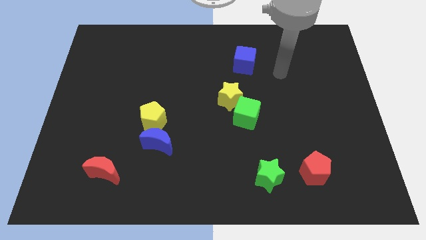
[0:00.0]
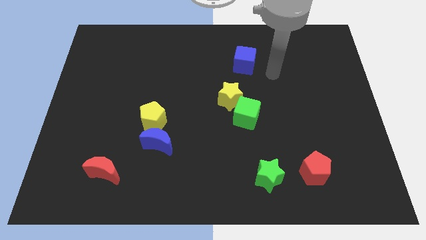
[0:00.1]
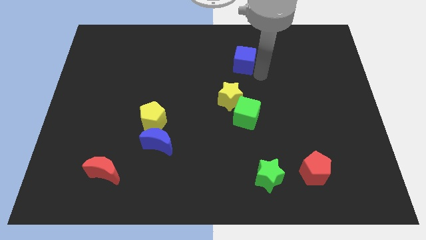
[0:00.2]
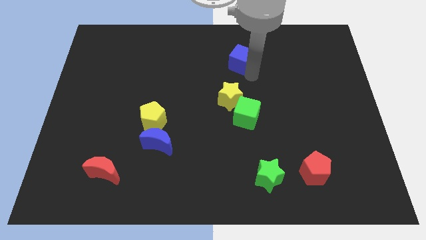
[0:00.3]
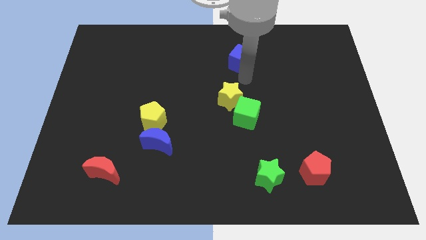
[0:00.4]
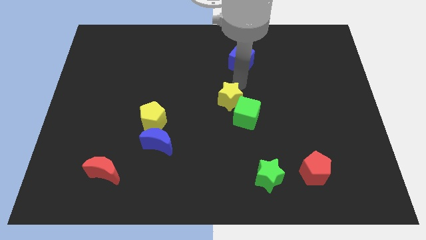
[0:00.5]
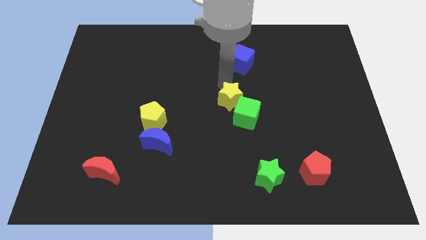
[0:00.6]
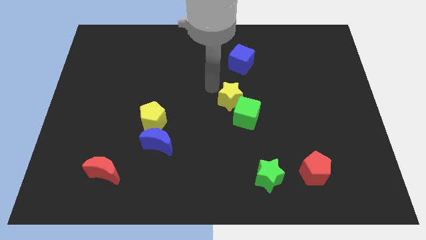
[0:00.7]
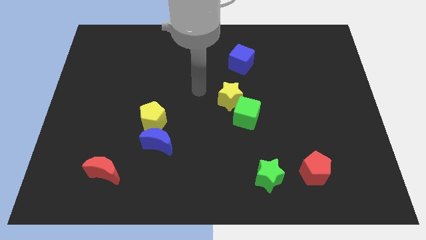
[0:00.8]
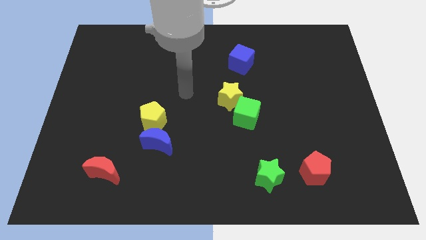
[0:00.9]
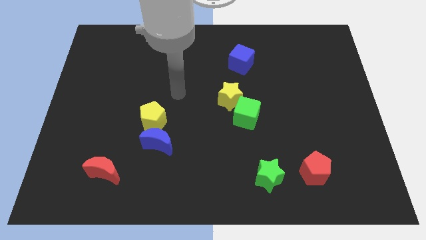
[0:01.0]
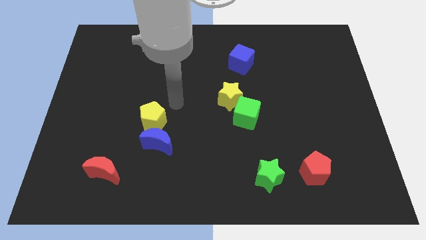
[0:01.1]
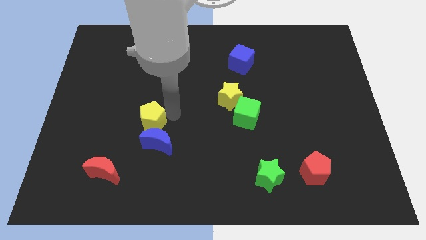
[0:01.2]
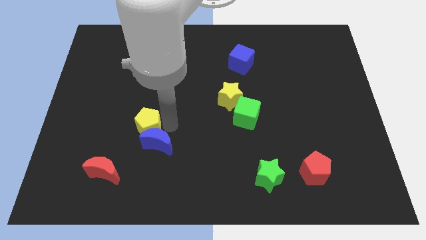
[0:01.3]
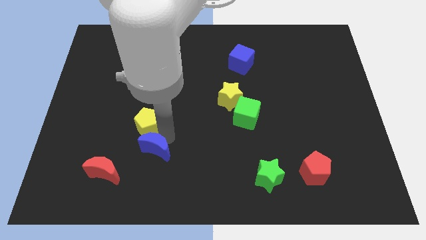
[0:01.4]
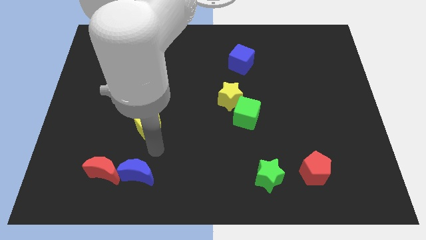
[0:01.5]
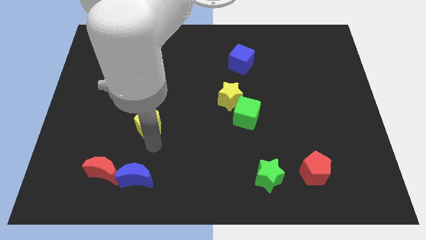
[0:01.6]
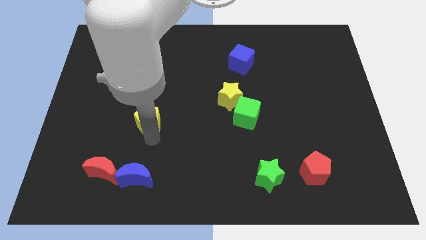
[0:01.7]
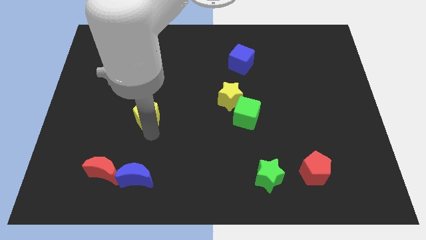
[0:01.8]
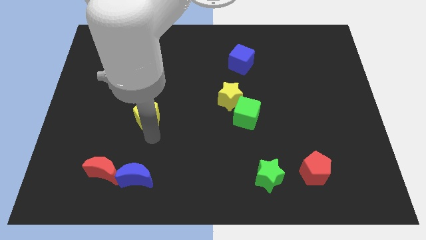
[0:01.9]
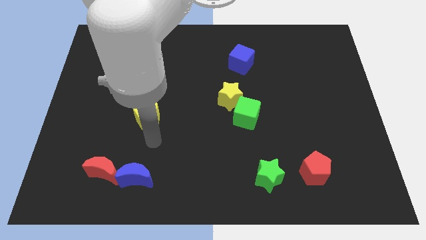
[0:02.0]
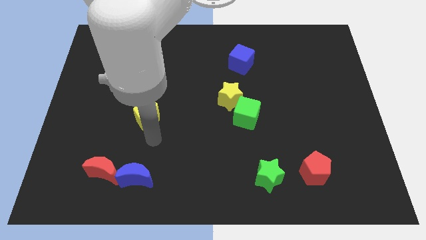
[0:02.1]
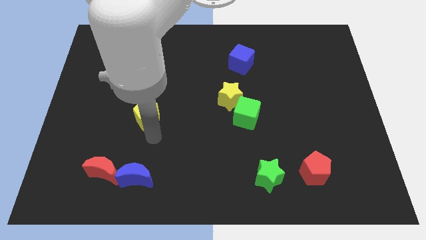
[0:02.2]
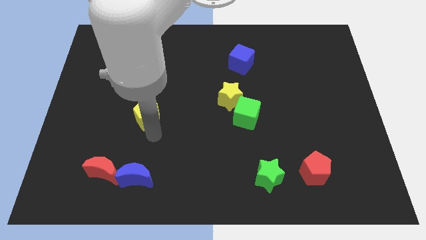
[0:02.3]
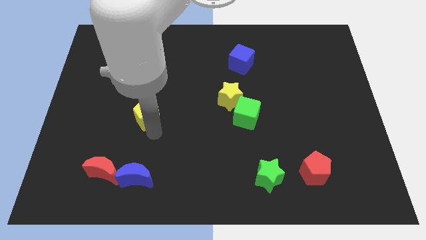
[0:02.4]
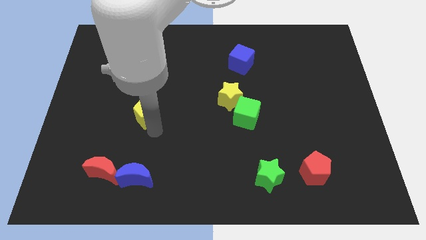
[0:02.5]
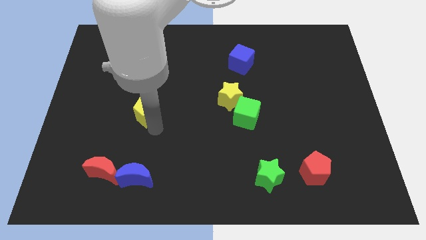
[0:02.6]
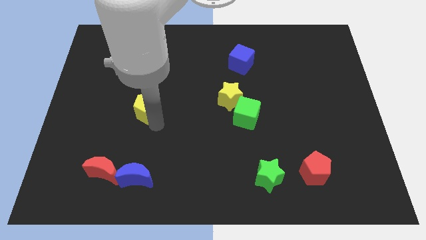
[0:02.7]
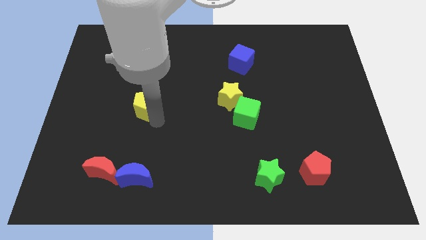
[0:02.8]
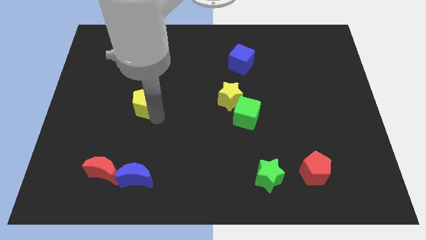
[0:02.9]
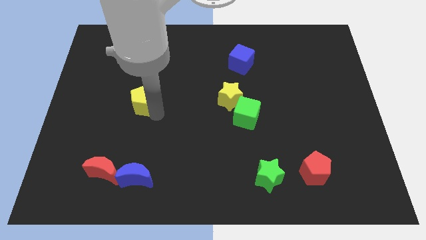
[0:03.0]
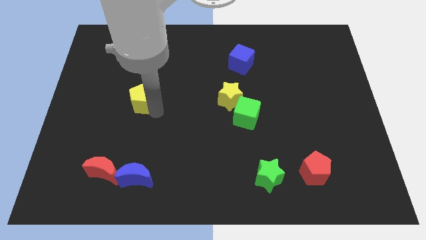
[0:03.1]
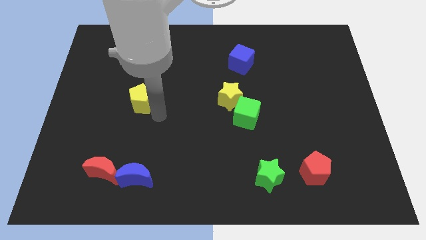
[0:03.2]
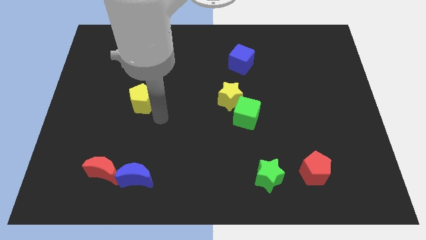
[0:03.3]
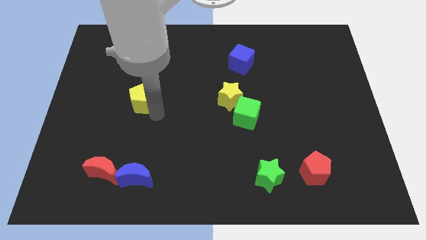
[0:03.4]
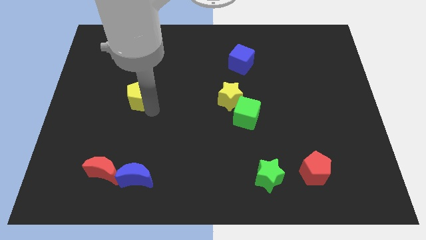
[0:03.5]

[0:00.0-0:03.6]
slide the yellow pentagon a little bit up and then to the left

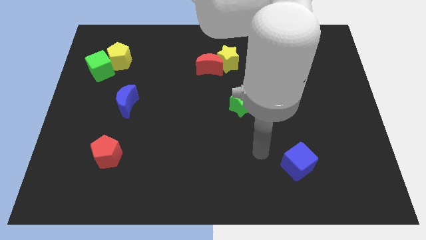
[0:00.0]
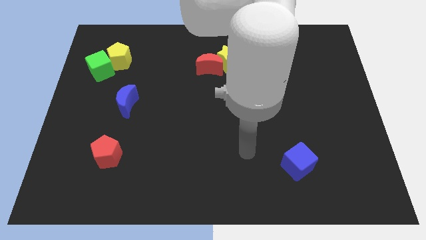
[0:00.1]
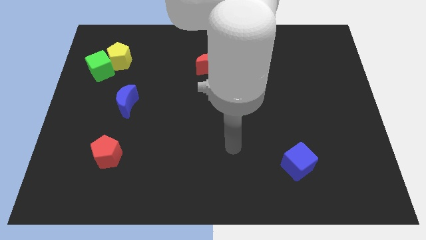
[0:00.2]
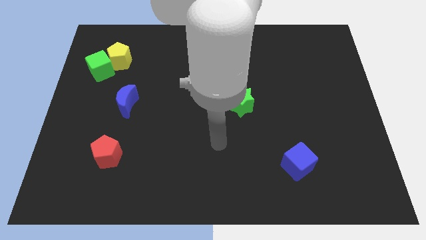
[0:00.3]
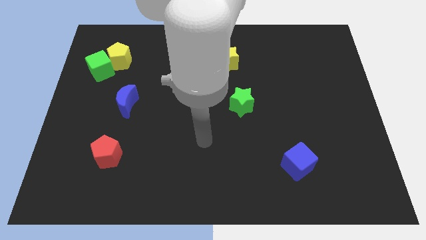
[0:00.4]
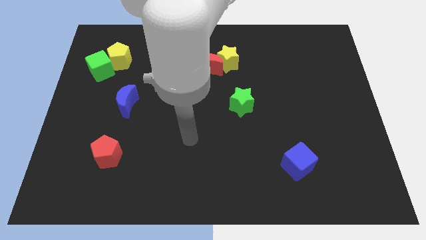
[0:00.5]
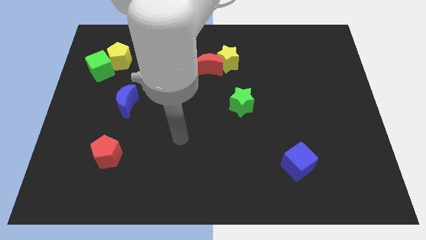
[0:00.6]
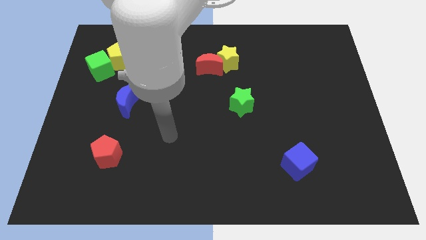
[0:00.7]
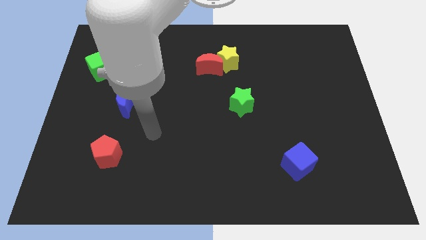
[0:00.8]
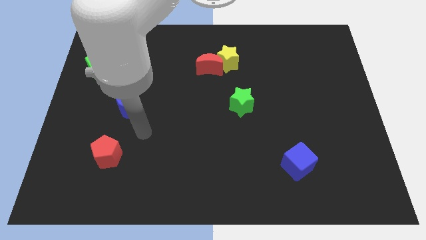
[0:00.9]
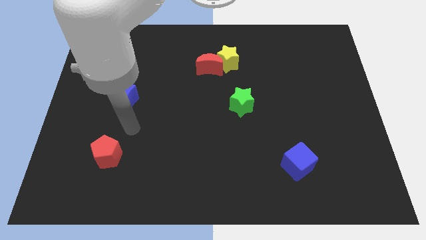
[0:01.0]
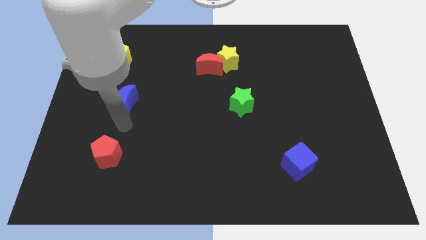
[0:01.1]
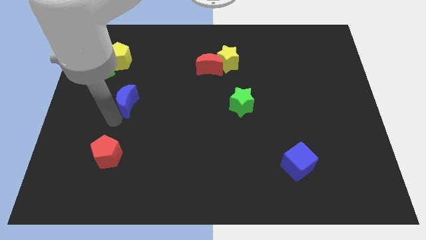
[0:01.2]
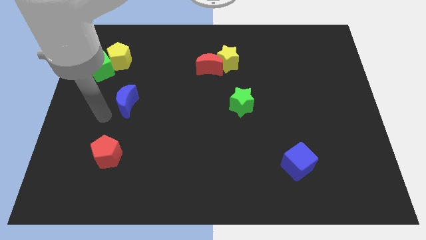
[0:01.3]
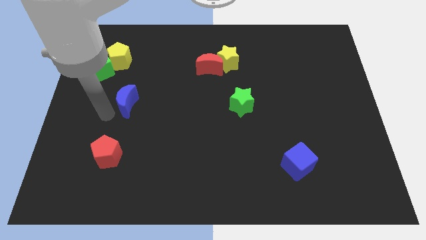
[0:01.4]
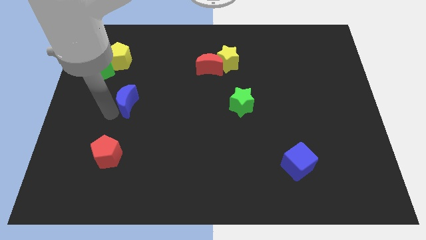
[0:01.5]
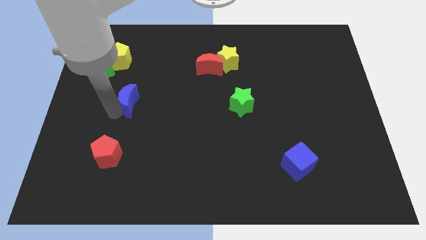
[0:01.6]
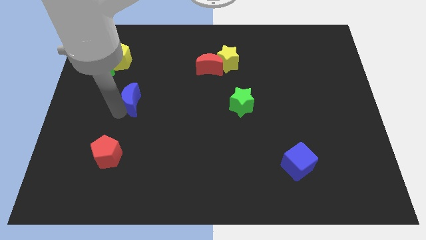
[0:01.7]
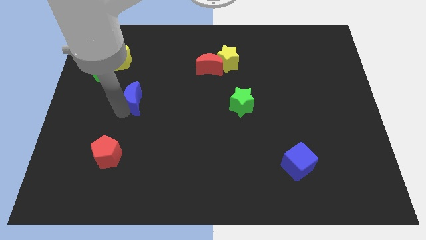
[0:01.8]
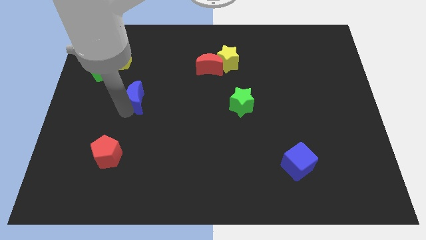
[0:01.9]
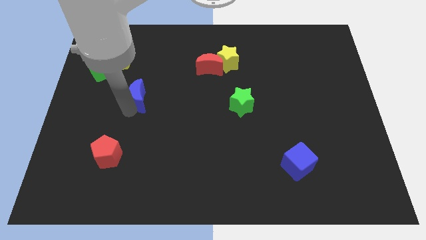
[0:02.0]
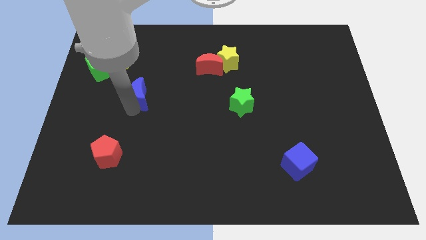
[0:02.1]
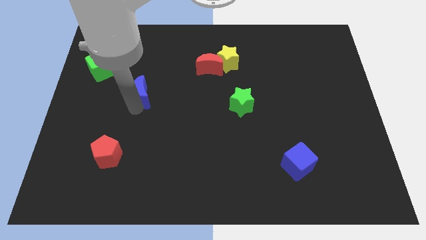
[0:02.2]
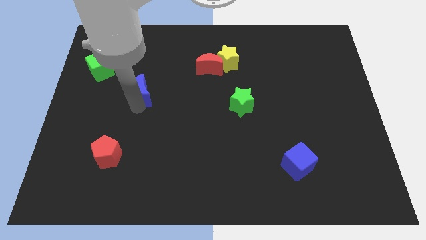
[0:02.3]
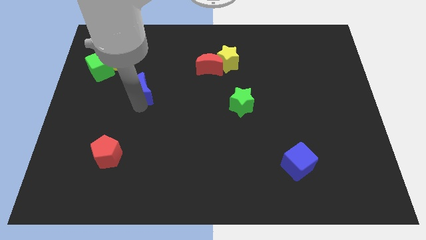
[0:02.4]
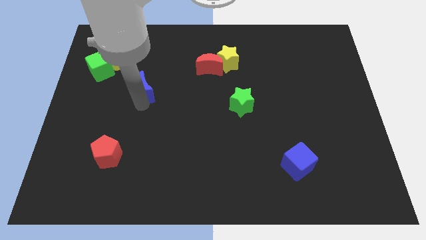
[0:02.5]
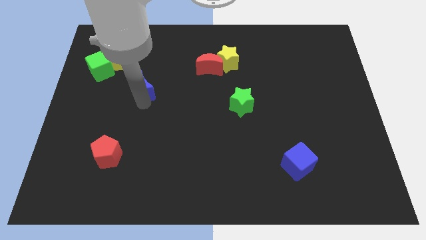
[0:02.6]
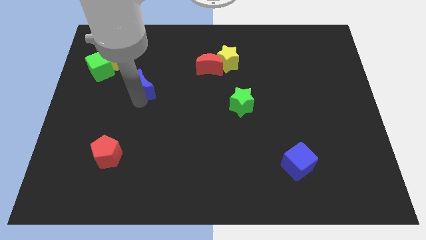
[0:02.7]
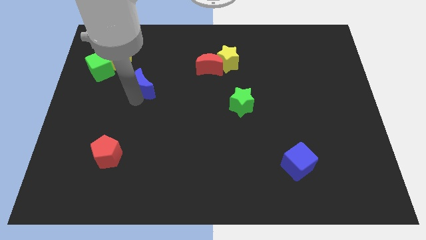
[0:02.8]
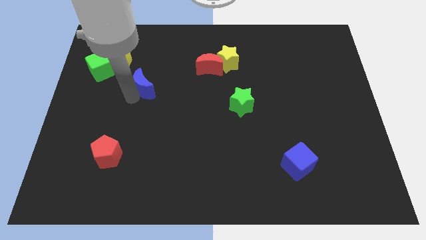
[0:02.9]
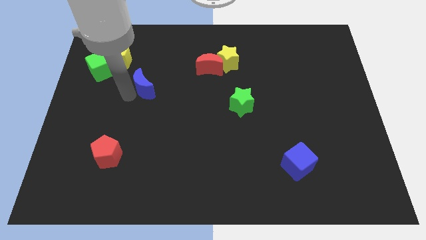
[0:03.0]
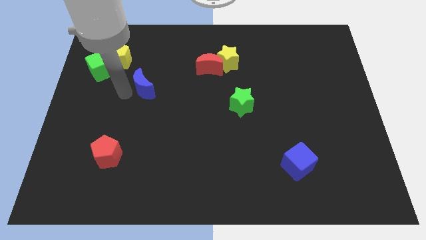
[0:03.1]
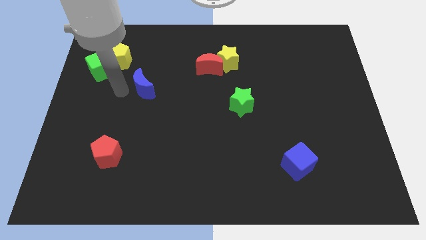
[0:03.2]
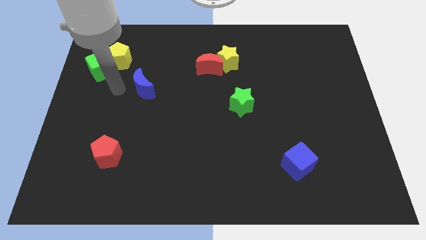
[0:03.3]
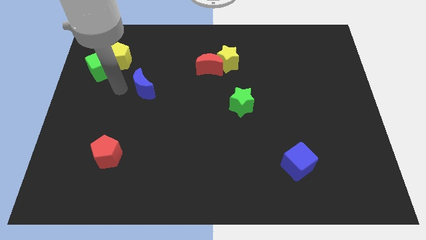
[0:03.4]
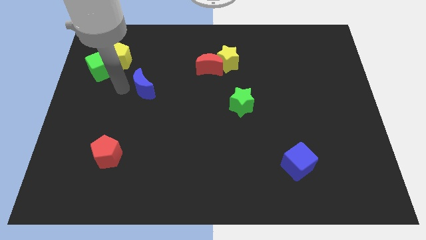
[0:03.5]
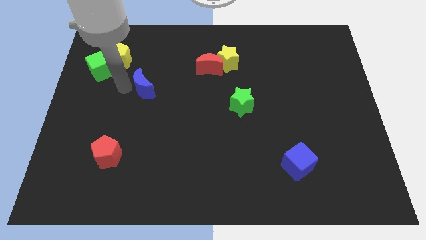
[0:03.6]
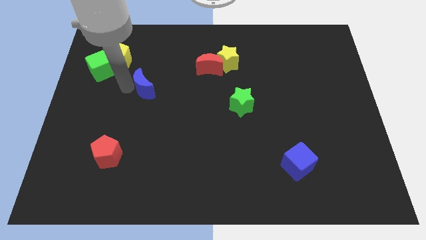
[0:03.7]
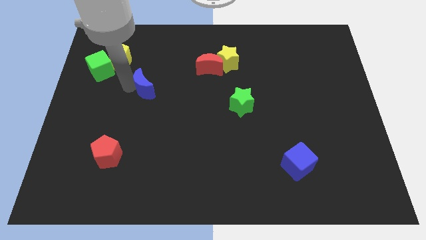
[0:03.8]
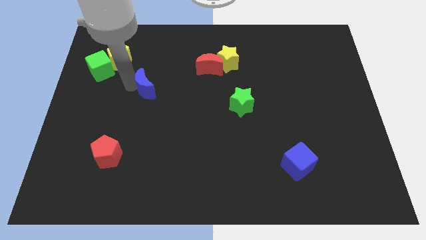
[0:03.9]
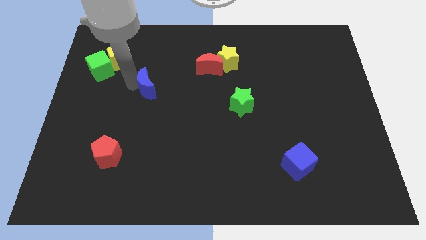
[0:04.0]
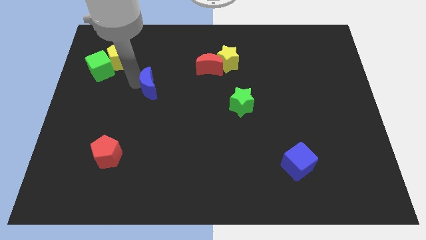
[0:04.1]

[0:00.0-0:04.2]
move the blue moon upwards and then to the right a bit
